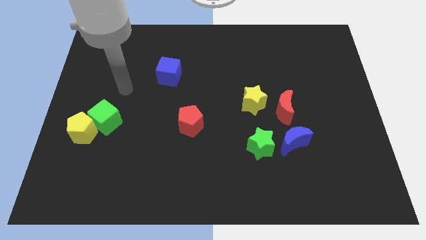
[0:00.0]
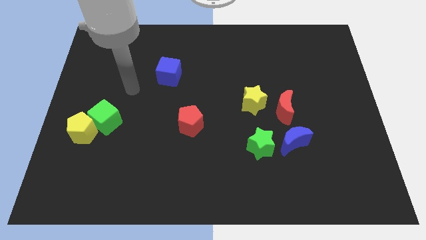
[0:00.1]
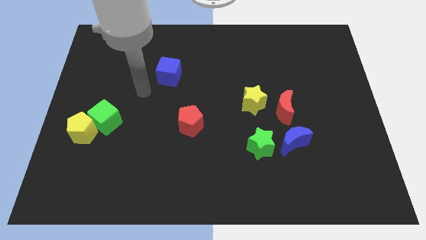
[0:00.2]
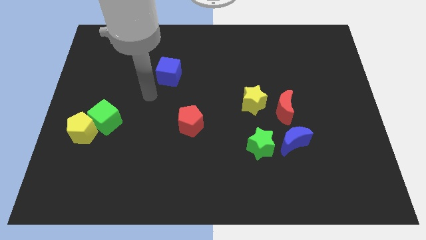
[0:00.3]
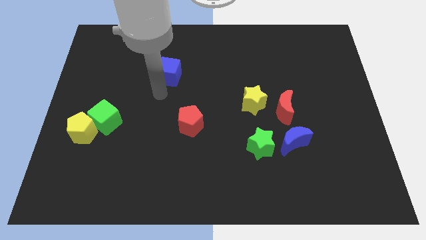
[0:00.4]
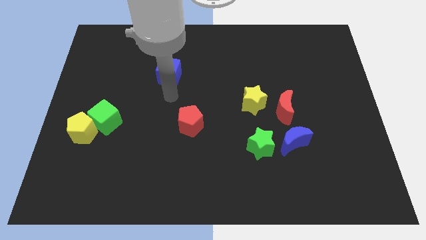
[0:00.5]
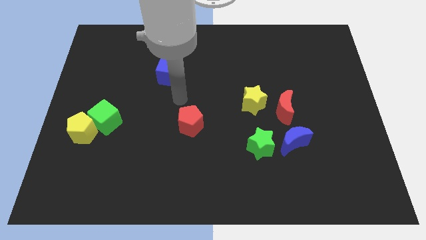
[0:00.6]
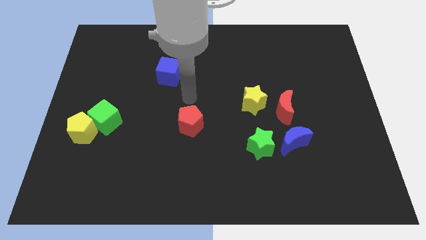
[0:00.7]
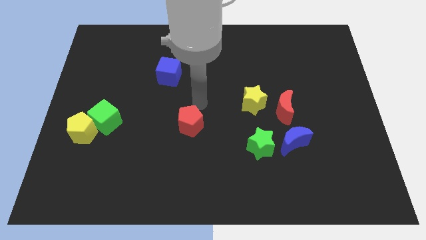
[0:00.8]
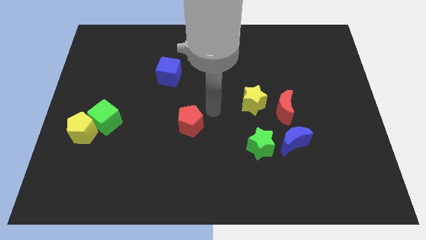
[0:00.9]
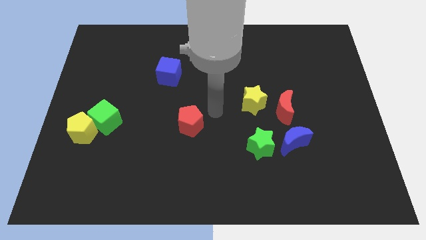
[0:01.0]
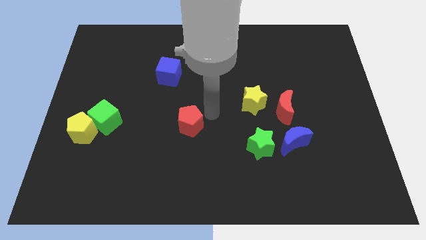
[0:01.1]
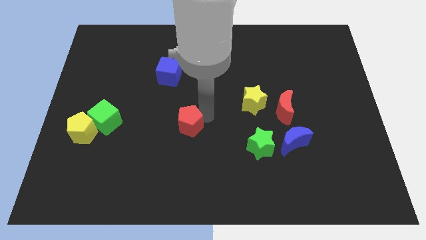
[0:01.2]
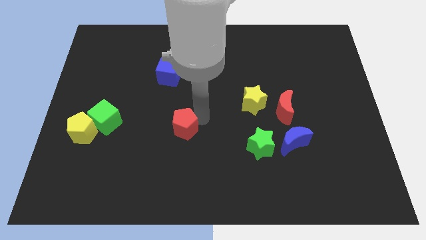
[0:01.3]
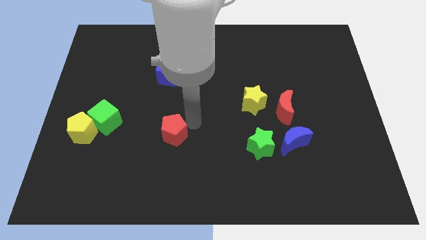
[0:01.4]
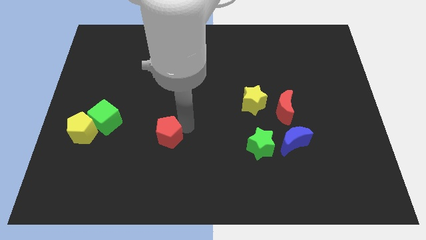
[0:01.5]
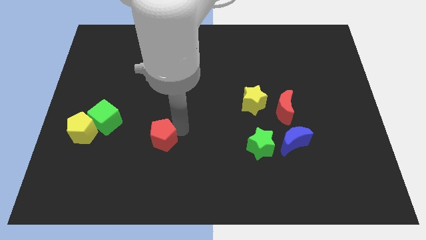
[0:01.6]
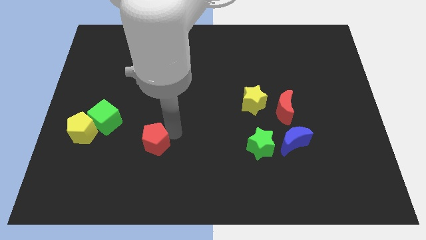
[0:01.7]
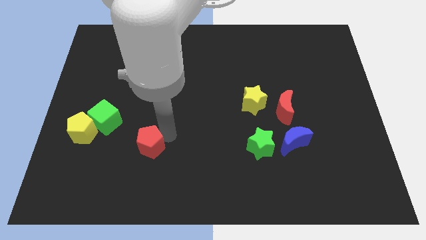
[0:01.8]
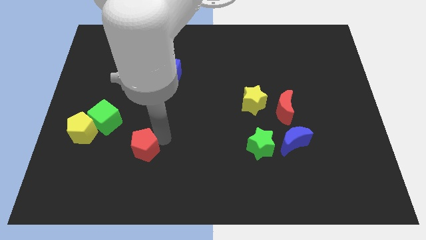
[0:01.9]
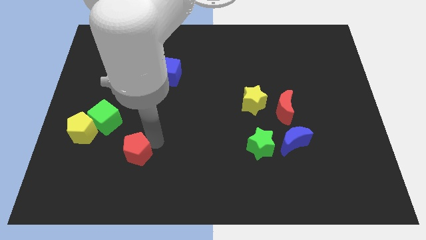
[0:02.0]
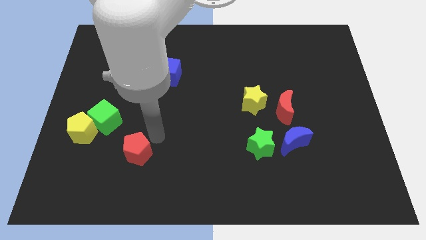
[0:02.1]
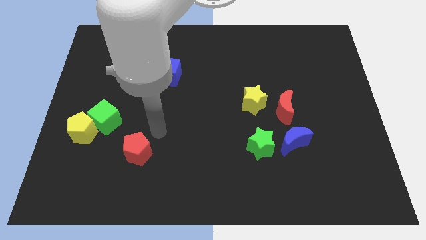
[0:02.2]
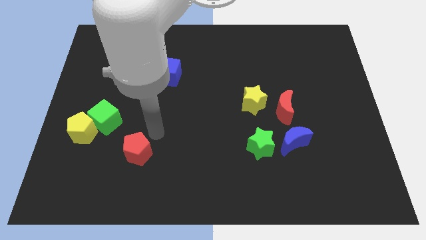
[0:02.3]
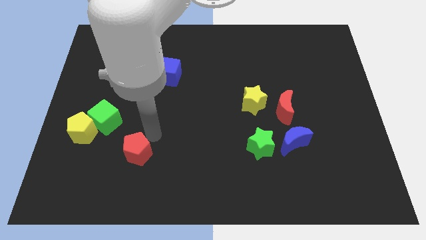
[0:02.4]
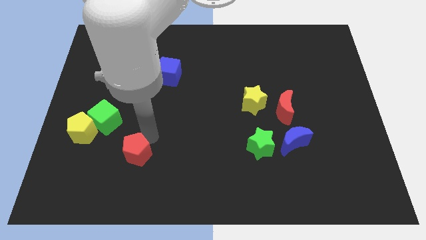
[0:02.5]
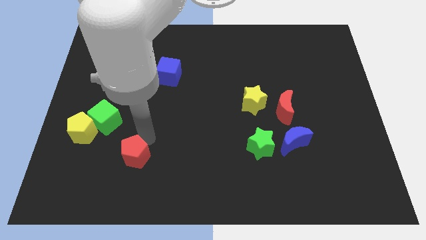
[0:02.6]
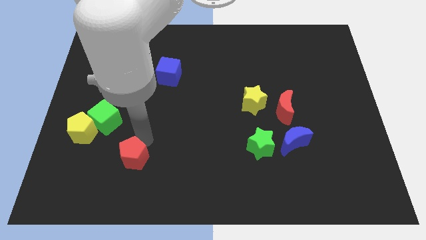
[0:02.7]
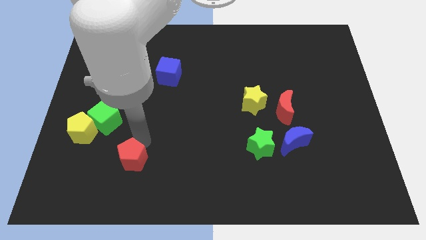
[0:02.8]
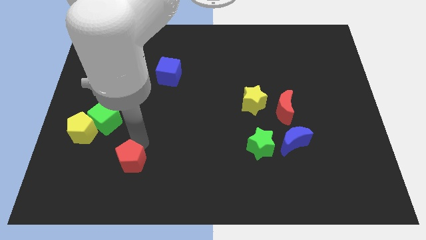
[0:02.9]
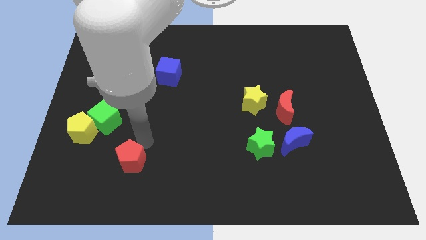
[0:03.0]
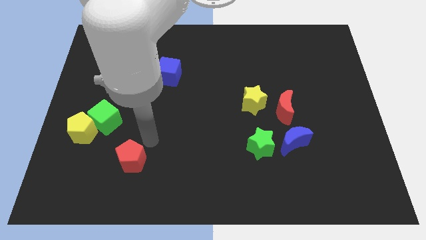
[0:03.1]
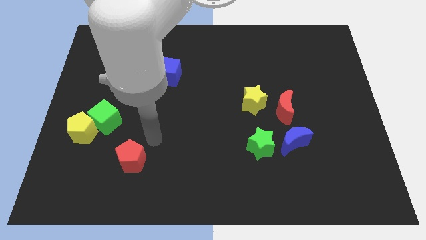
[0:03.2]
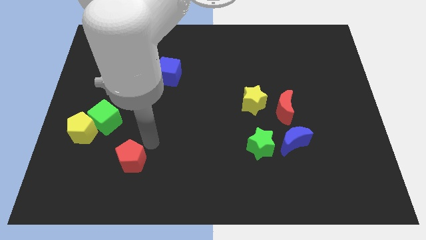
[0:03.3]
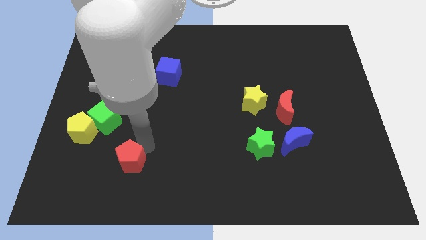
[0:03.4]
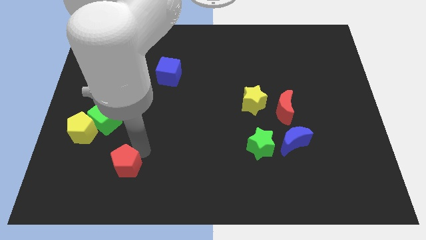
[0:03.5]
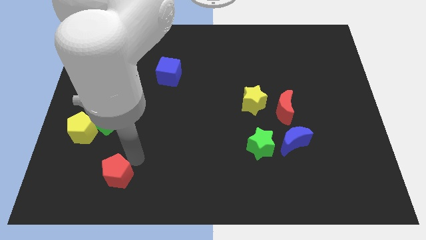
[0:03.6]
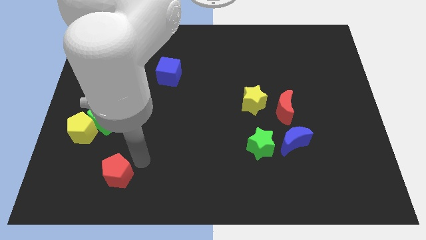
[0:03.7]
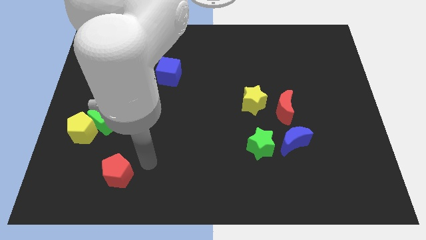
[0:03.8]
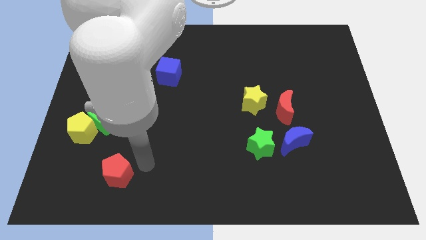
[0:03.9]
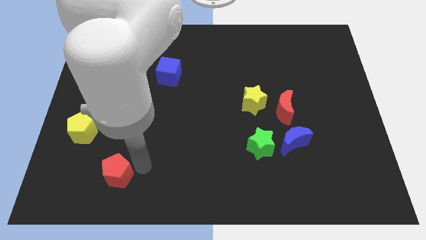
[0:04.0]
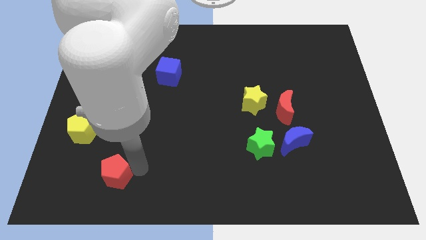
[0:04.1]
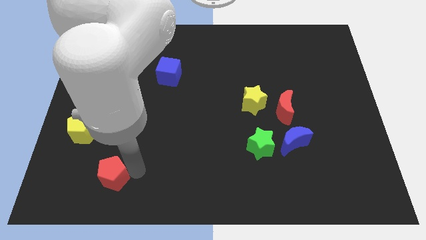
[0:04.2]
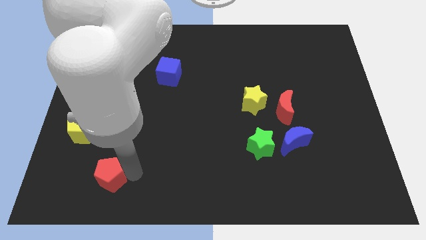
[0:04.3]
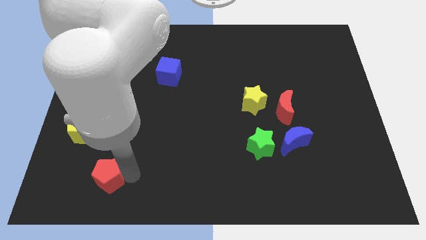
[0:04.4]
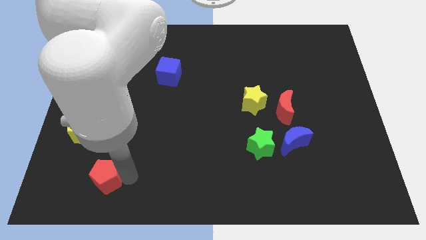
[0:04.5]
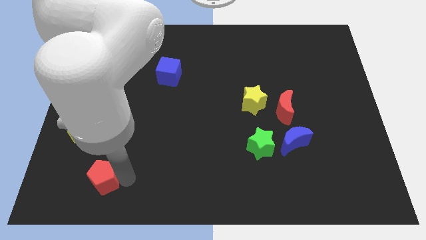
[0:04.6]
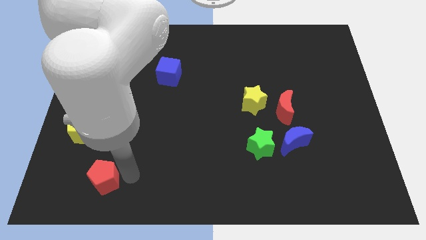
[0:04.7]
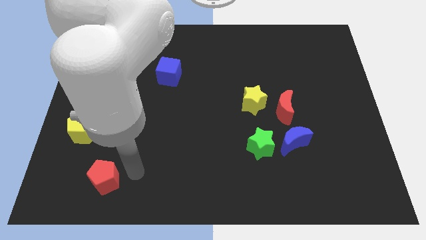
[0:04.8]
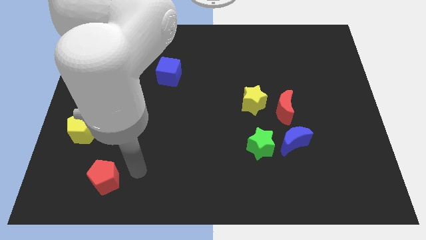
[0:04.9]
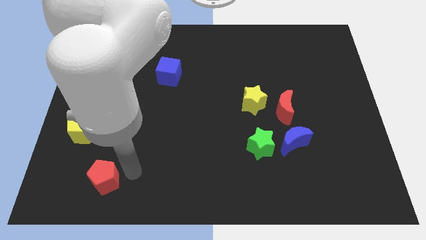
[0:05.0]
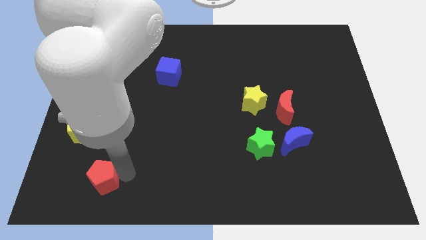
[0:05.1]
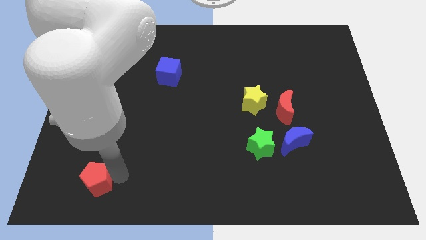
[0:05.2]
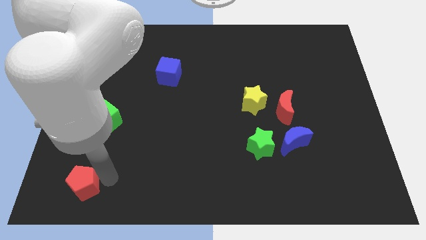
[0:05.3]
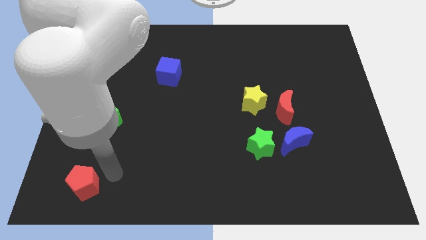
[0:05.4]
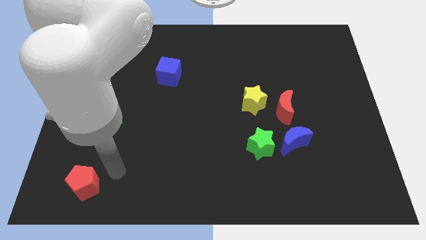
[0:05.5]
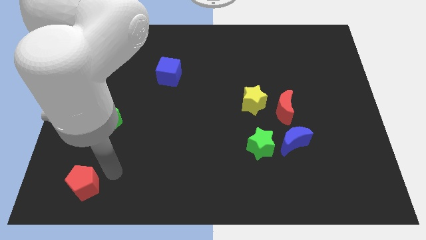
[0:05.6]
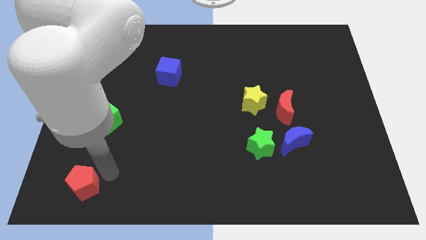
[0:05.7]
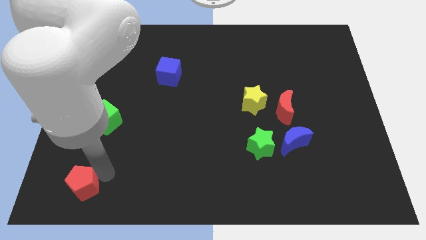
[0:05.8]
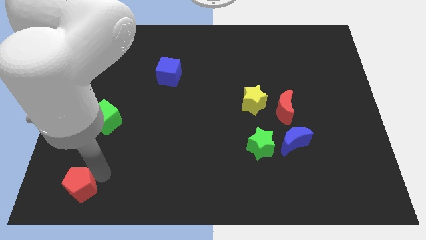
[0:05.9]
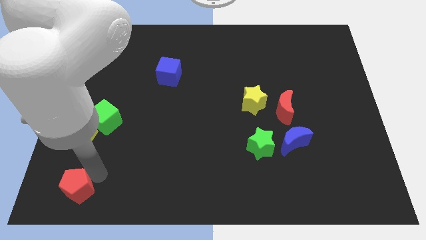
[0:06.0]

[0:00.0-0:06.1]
slide the red pentagon to the bottom left corner
